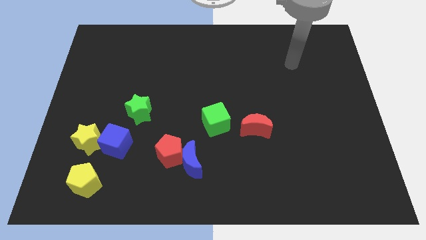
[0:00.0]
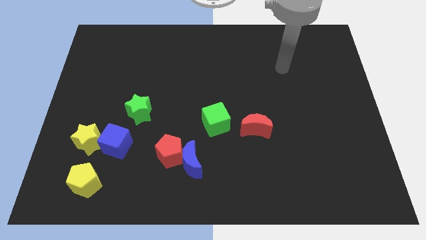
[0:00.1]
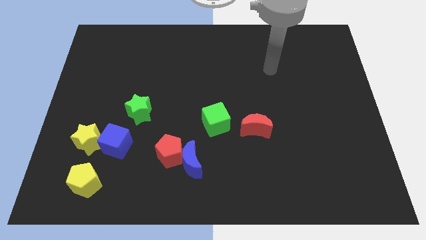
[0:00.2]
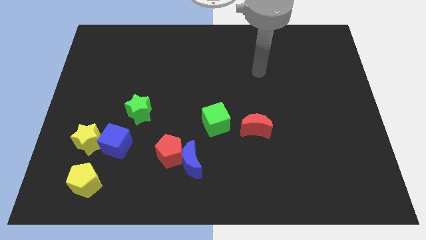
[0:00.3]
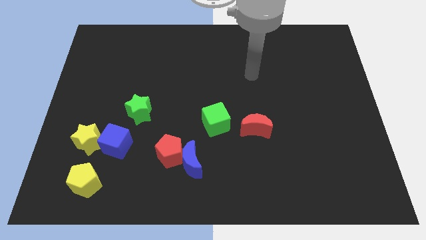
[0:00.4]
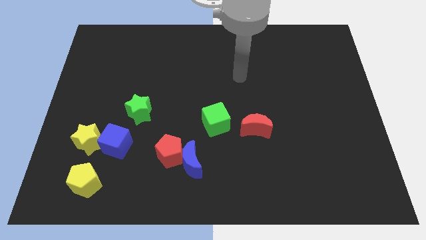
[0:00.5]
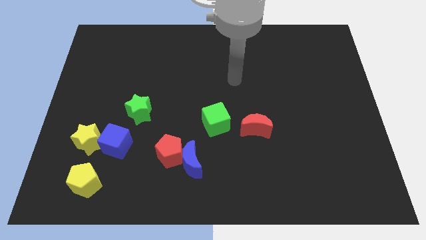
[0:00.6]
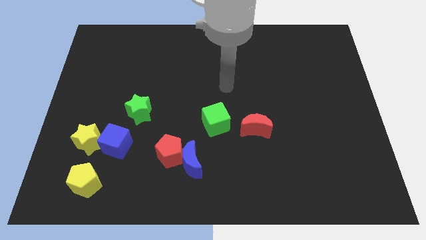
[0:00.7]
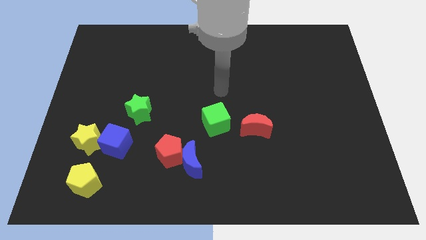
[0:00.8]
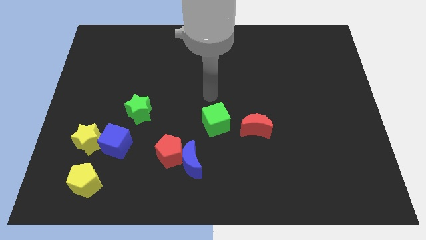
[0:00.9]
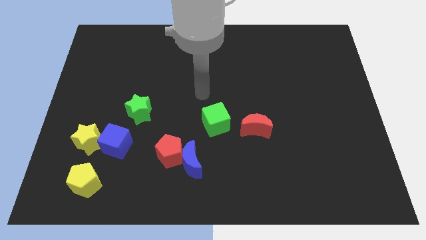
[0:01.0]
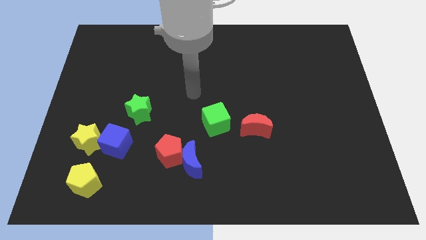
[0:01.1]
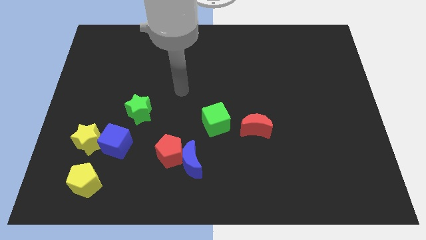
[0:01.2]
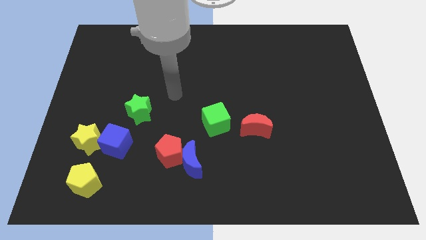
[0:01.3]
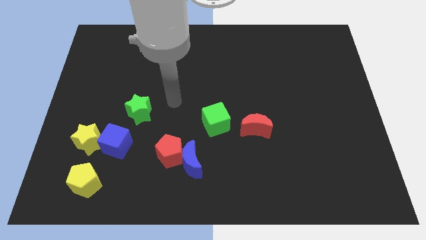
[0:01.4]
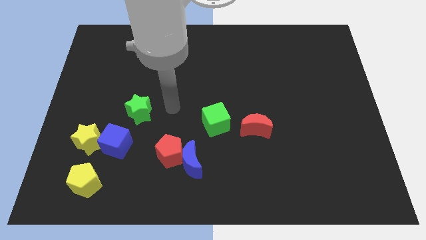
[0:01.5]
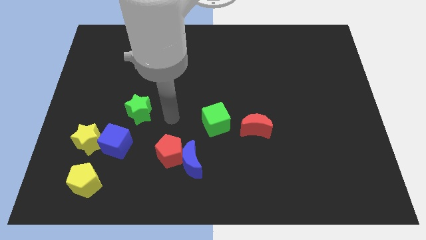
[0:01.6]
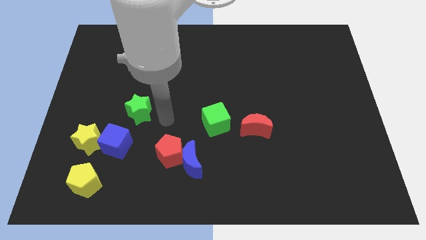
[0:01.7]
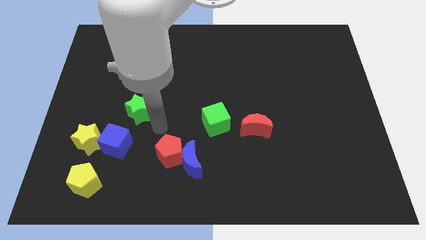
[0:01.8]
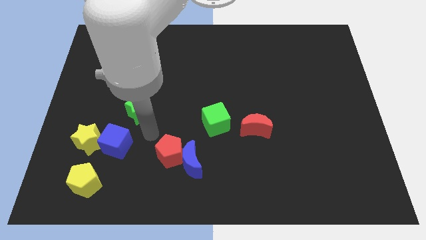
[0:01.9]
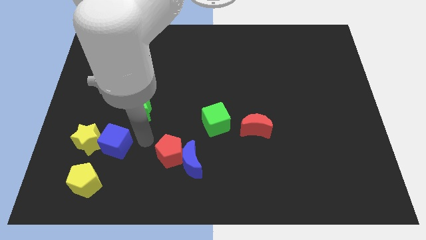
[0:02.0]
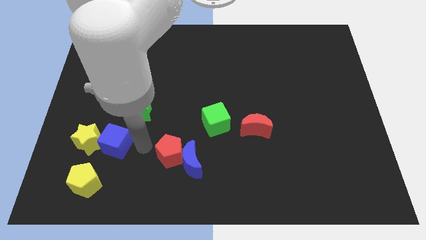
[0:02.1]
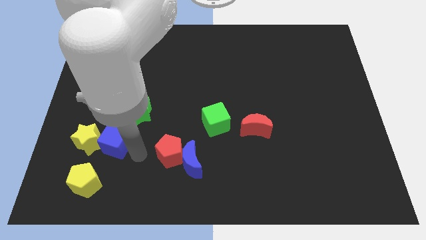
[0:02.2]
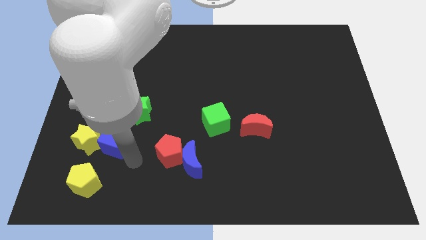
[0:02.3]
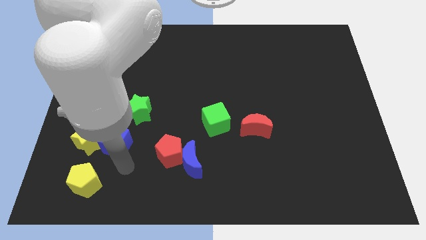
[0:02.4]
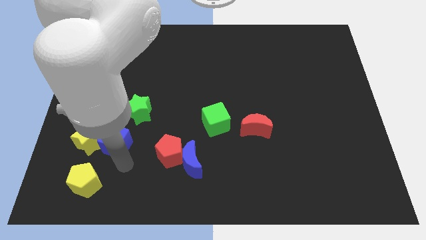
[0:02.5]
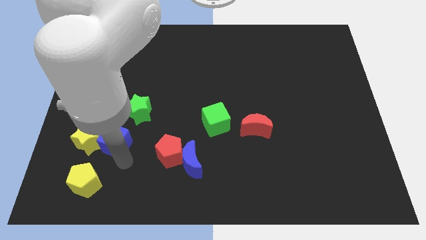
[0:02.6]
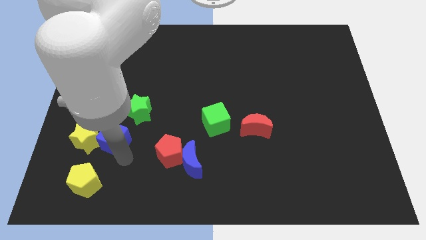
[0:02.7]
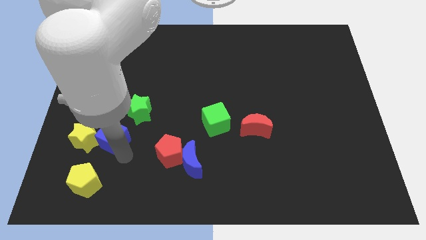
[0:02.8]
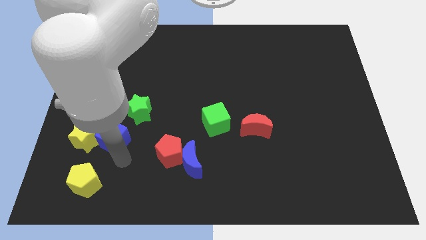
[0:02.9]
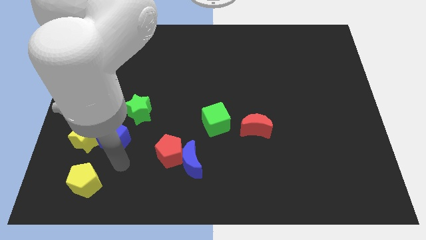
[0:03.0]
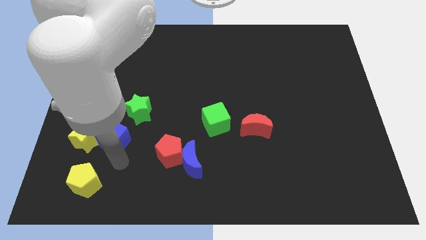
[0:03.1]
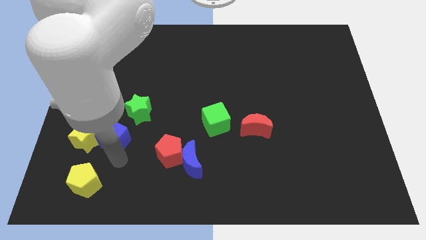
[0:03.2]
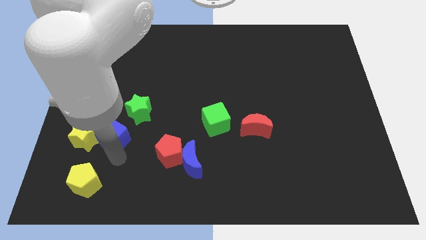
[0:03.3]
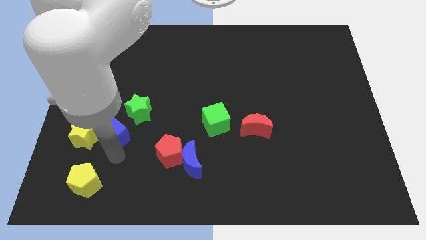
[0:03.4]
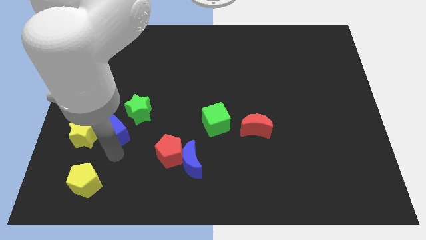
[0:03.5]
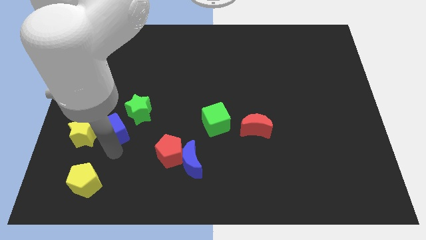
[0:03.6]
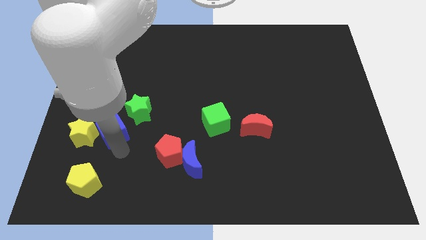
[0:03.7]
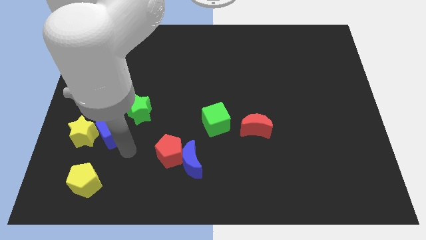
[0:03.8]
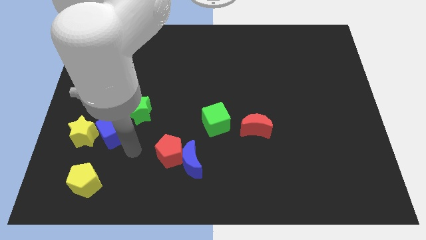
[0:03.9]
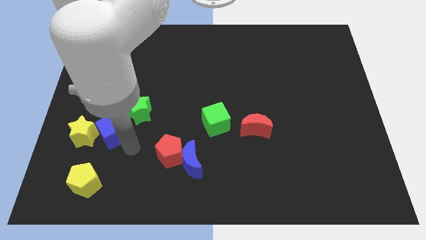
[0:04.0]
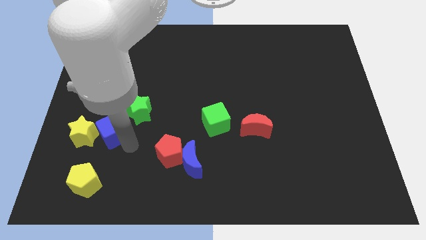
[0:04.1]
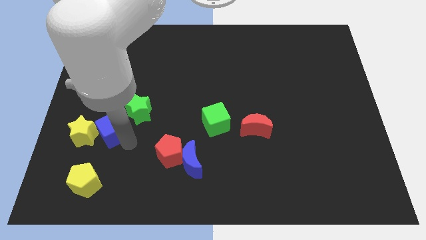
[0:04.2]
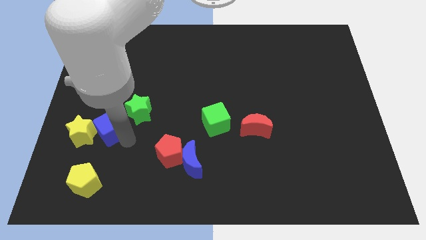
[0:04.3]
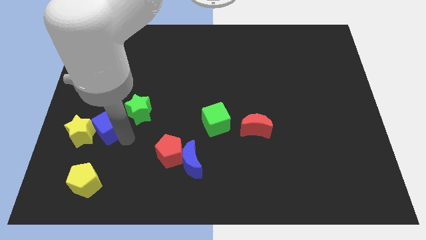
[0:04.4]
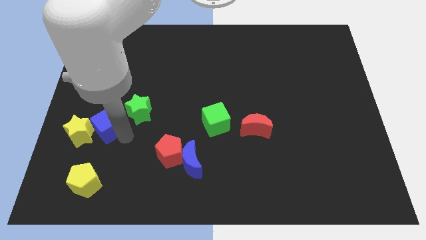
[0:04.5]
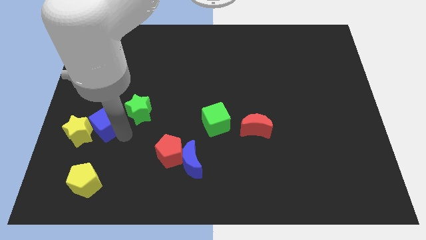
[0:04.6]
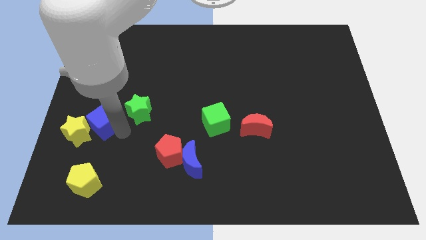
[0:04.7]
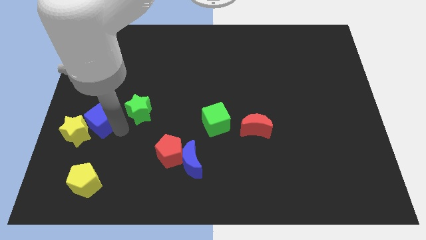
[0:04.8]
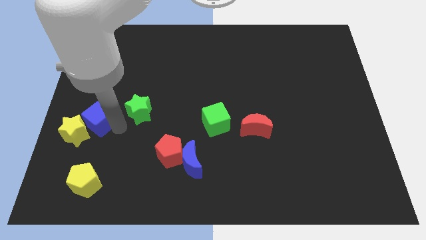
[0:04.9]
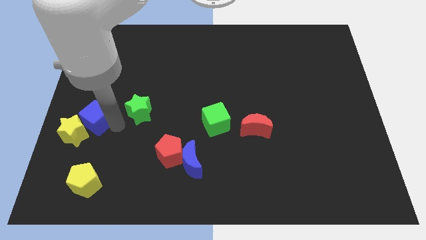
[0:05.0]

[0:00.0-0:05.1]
slide the blue cube to the left side of the board

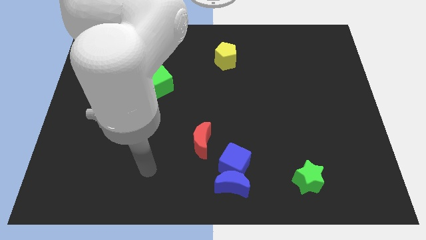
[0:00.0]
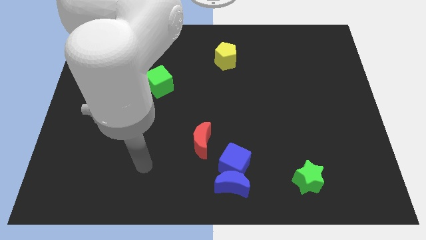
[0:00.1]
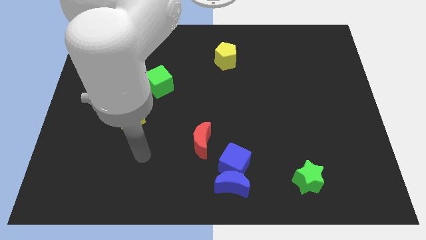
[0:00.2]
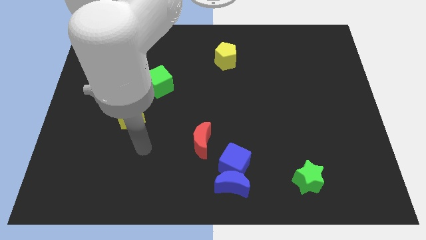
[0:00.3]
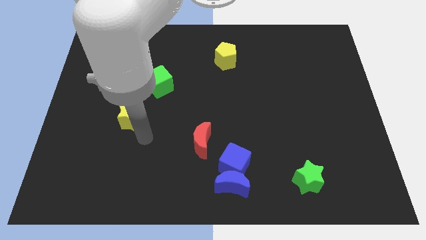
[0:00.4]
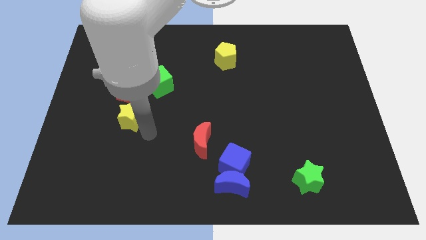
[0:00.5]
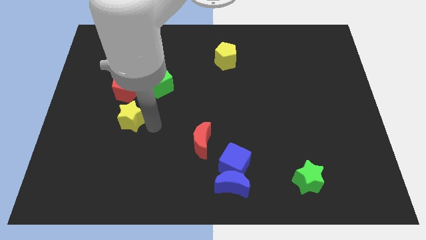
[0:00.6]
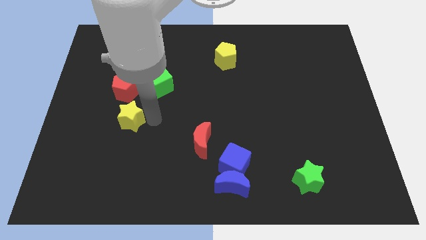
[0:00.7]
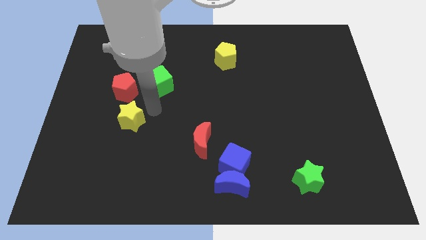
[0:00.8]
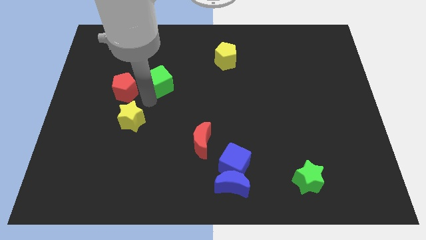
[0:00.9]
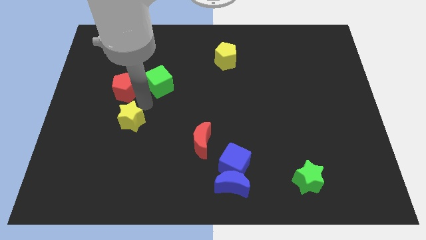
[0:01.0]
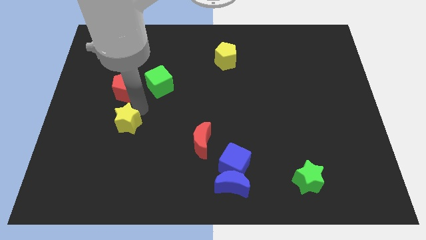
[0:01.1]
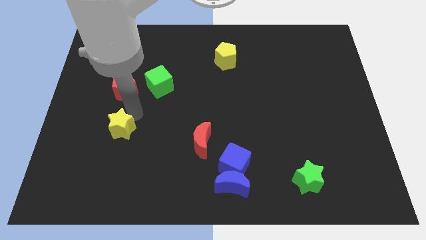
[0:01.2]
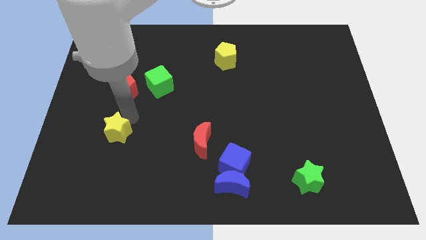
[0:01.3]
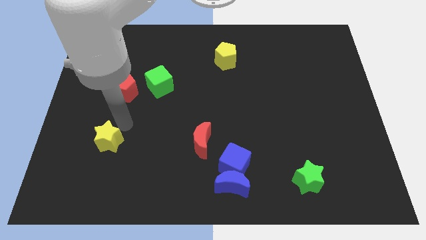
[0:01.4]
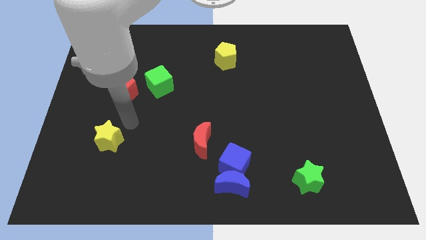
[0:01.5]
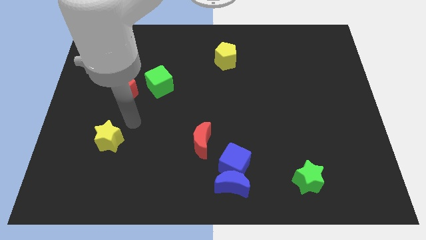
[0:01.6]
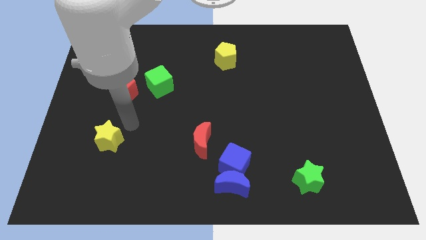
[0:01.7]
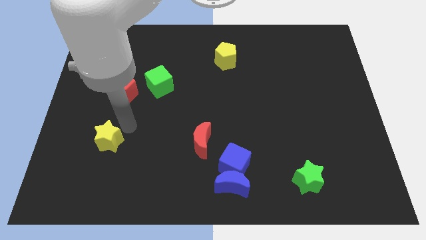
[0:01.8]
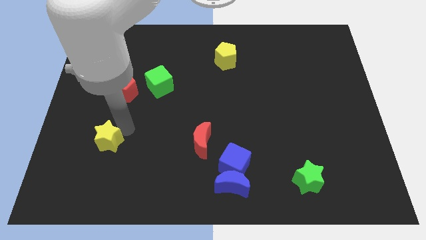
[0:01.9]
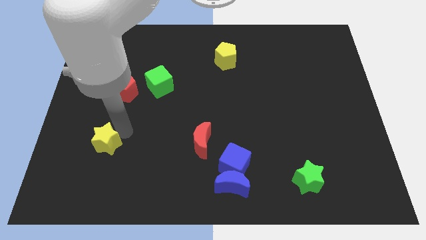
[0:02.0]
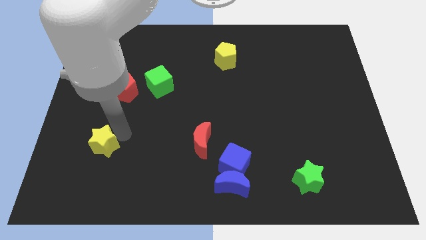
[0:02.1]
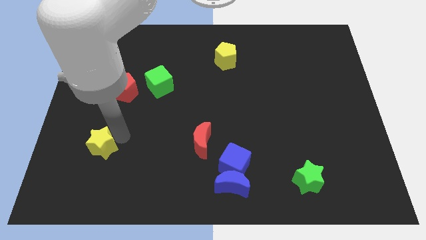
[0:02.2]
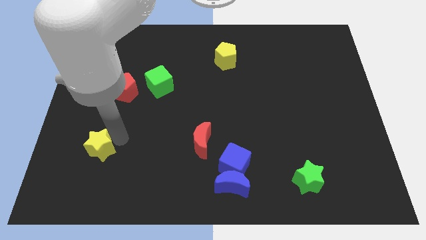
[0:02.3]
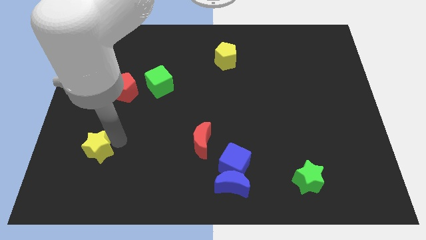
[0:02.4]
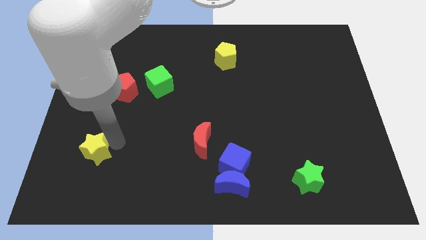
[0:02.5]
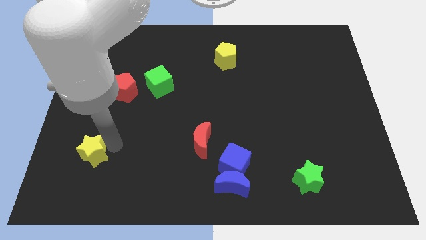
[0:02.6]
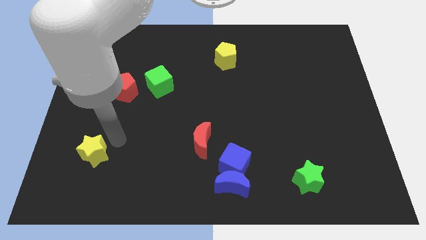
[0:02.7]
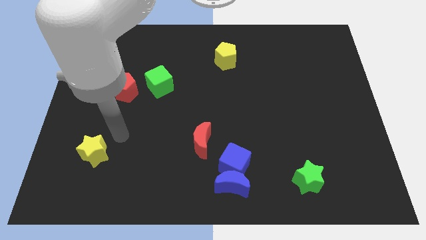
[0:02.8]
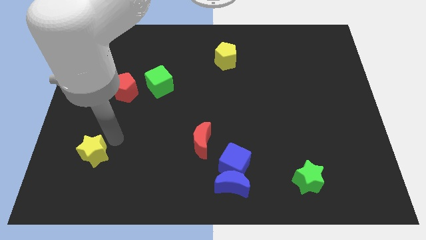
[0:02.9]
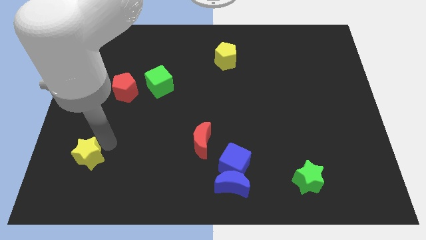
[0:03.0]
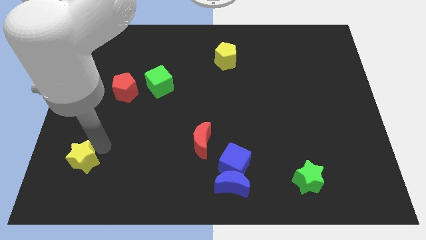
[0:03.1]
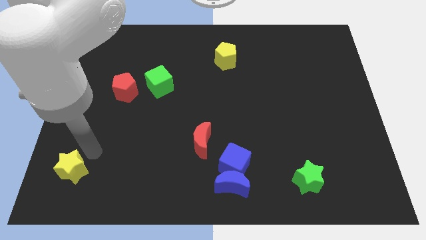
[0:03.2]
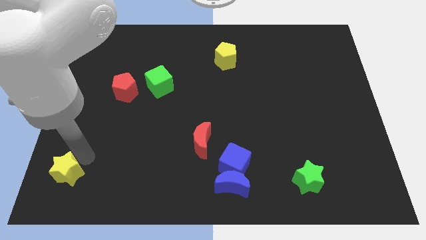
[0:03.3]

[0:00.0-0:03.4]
push the yellow star to the lower left corner
